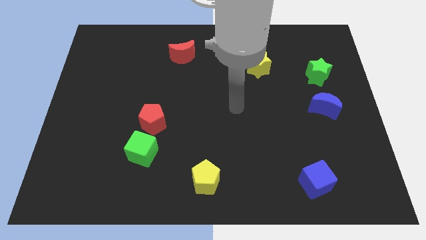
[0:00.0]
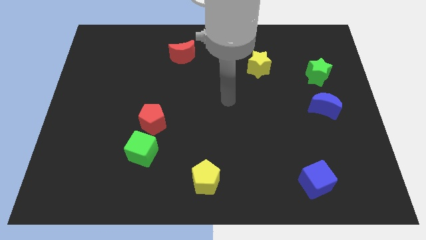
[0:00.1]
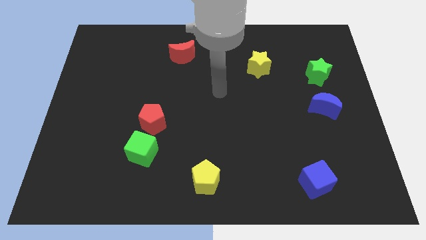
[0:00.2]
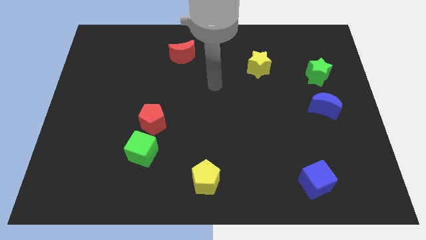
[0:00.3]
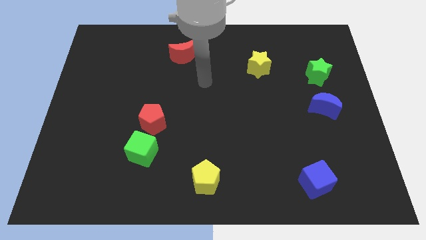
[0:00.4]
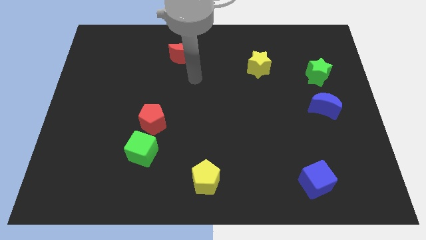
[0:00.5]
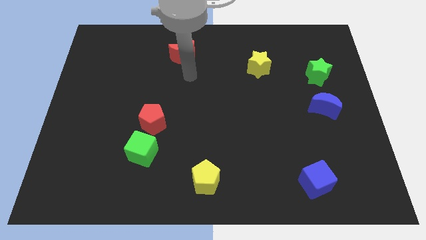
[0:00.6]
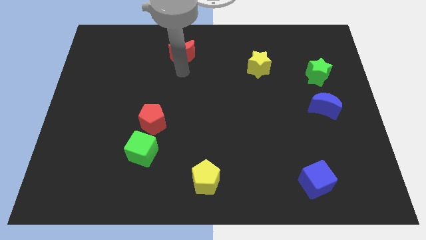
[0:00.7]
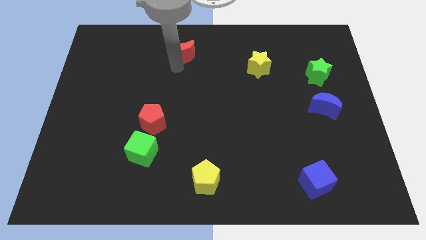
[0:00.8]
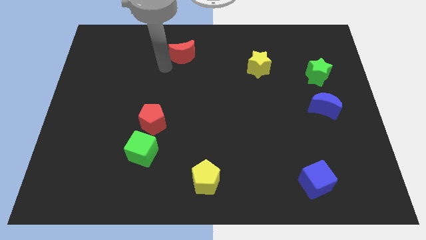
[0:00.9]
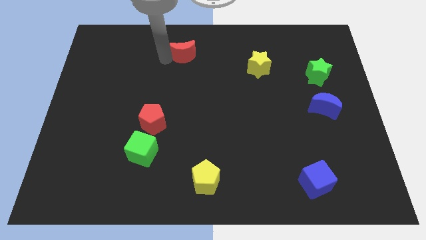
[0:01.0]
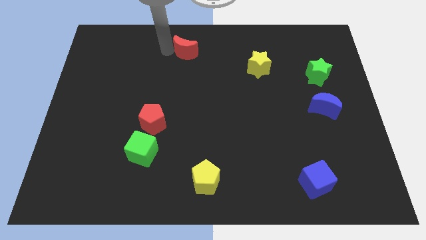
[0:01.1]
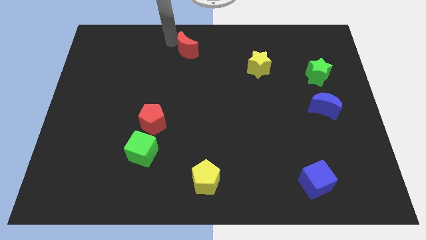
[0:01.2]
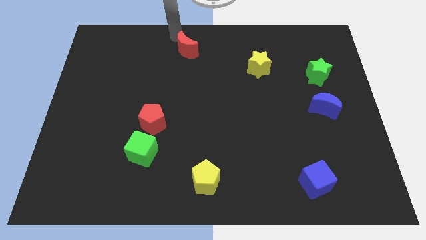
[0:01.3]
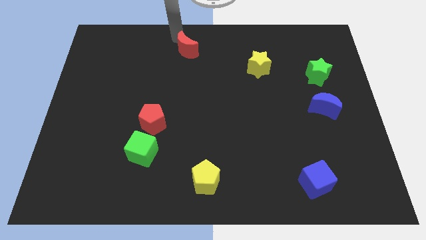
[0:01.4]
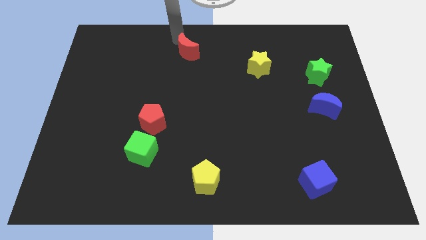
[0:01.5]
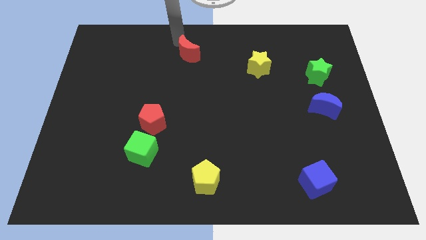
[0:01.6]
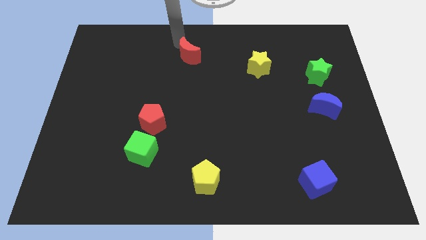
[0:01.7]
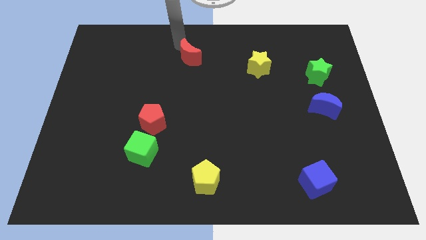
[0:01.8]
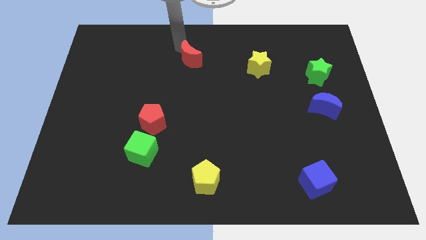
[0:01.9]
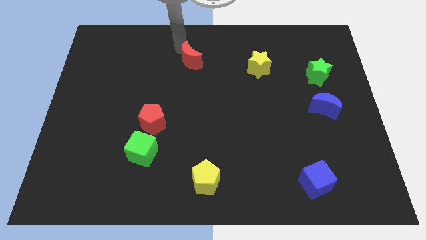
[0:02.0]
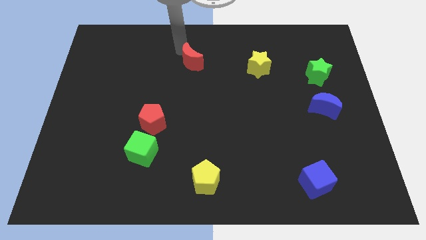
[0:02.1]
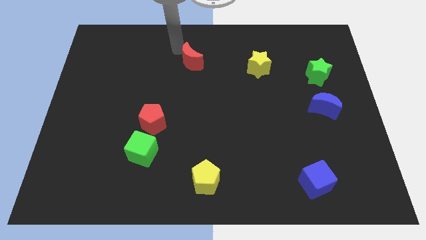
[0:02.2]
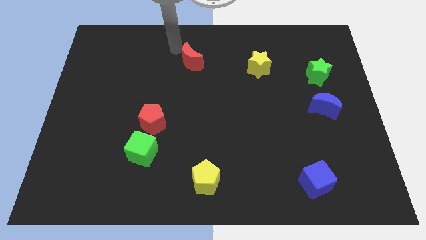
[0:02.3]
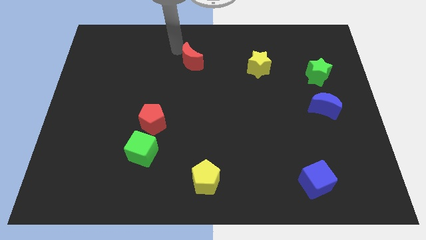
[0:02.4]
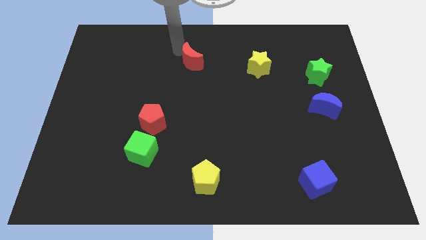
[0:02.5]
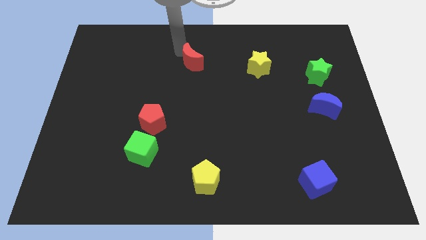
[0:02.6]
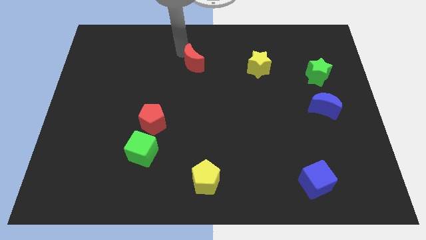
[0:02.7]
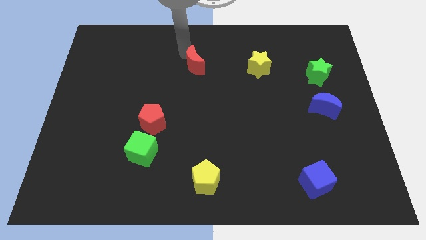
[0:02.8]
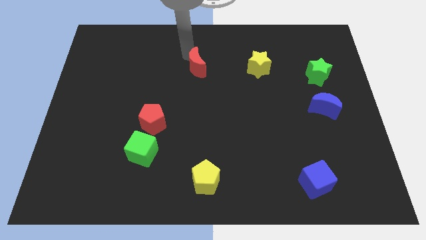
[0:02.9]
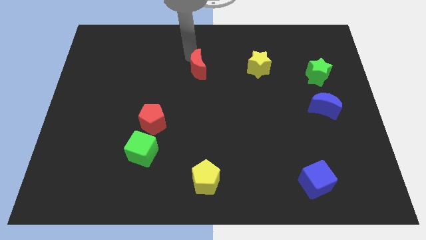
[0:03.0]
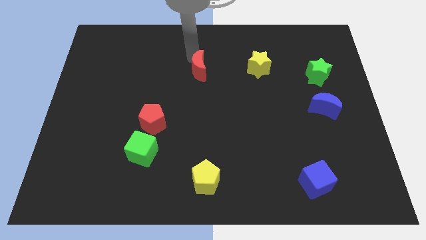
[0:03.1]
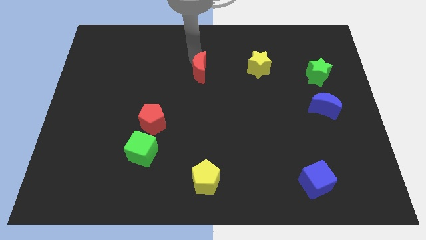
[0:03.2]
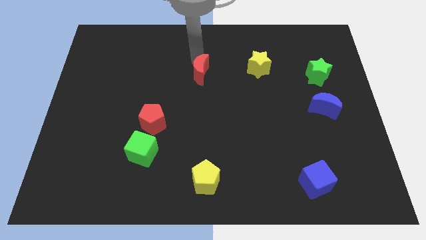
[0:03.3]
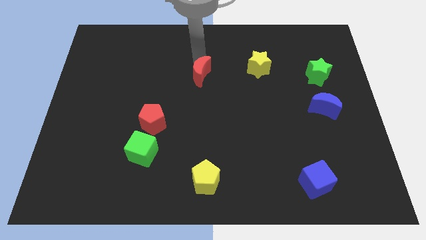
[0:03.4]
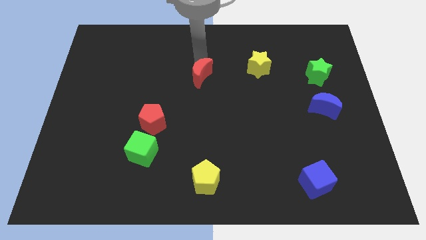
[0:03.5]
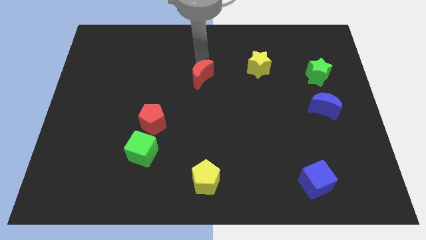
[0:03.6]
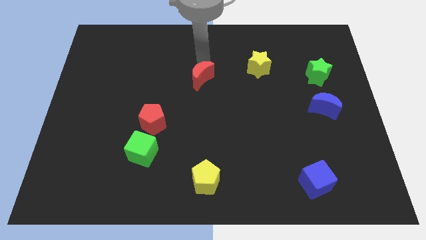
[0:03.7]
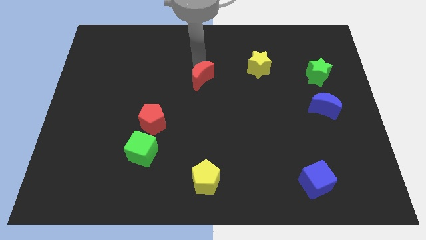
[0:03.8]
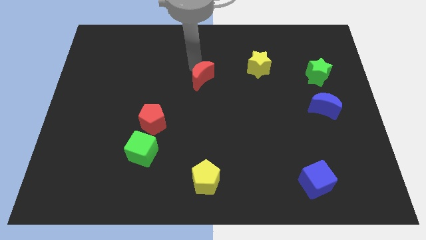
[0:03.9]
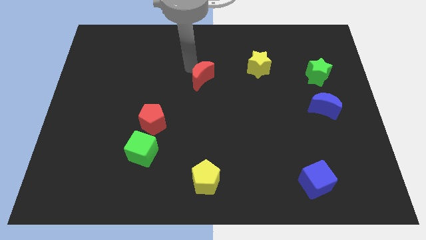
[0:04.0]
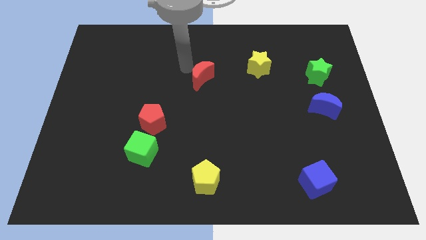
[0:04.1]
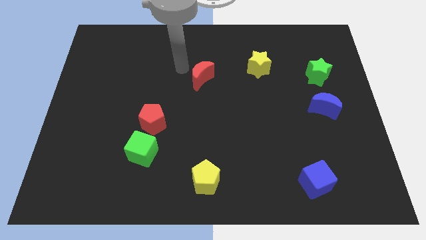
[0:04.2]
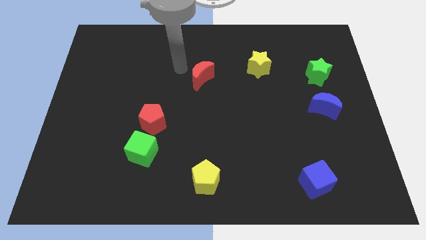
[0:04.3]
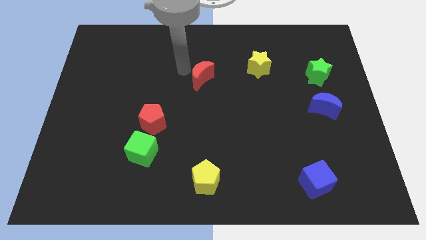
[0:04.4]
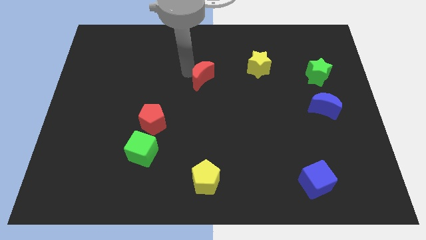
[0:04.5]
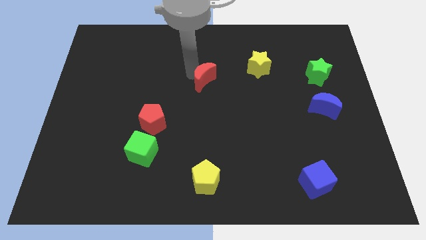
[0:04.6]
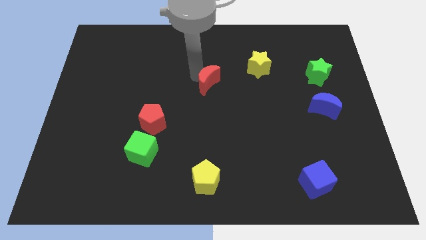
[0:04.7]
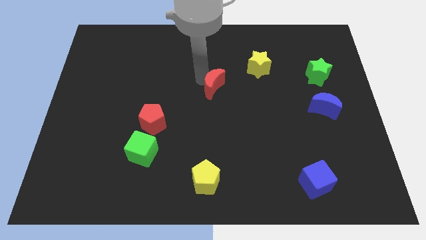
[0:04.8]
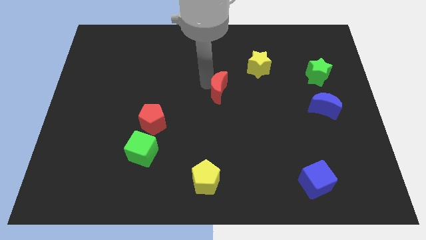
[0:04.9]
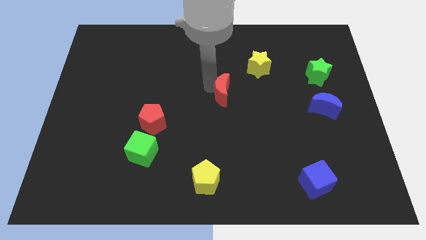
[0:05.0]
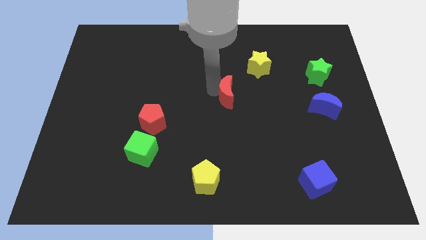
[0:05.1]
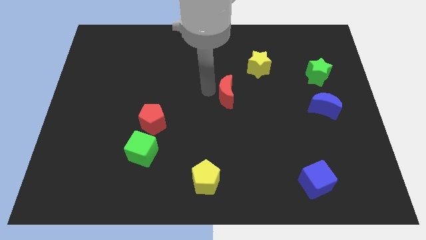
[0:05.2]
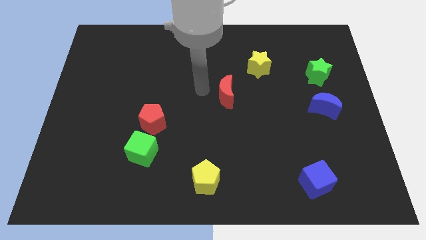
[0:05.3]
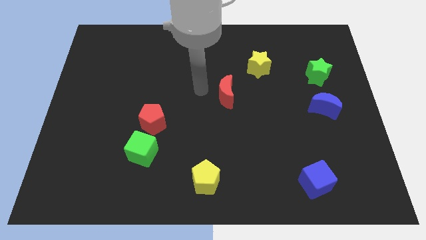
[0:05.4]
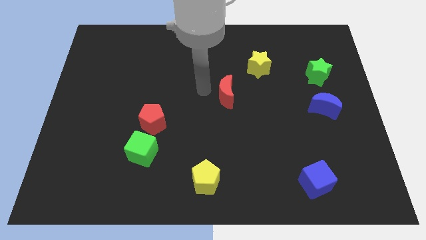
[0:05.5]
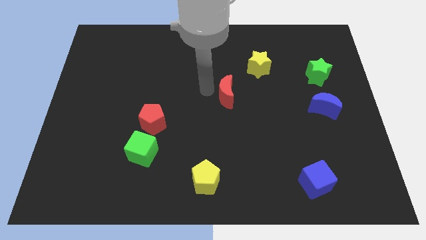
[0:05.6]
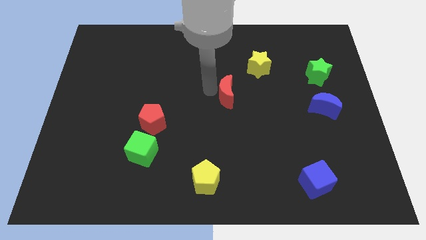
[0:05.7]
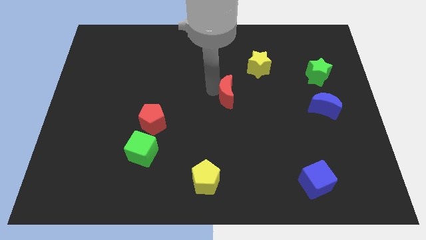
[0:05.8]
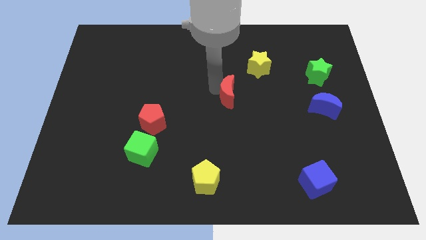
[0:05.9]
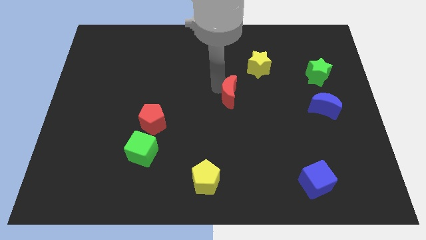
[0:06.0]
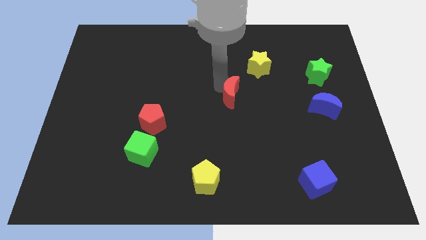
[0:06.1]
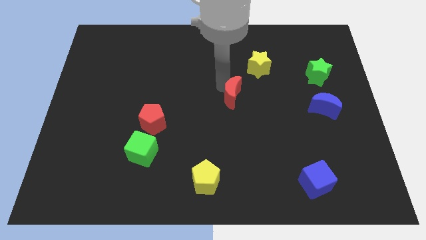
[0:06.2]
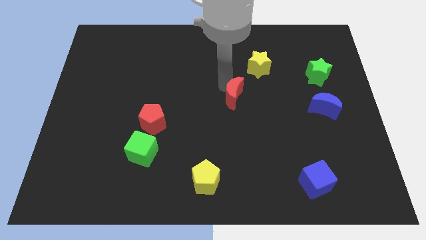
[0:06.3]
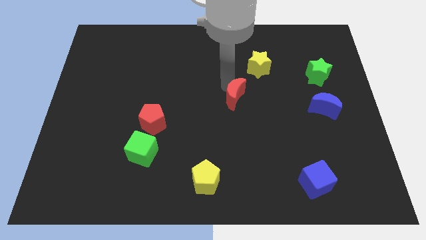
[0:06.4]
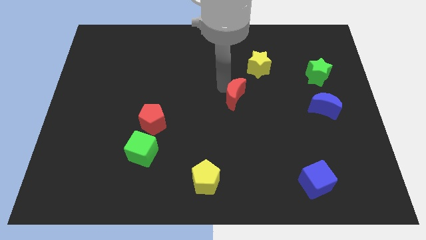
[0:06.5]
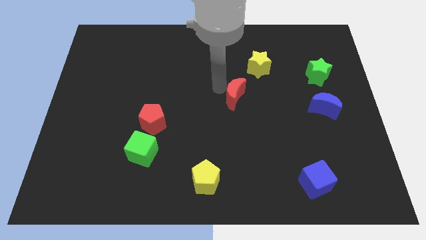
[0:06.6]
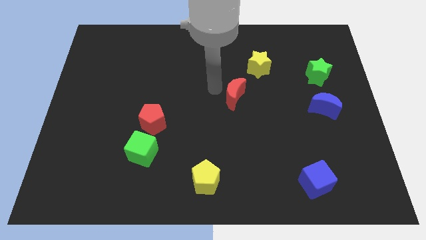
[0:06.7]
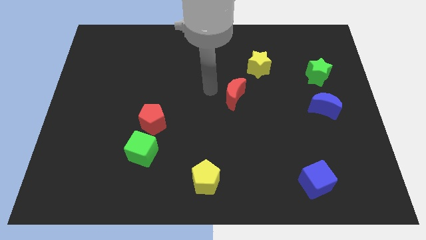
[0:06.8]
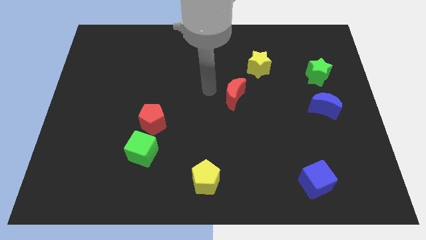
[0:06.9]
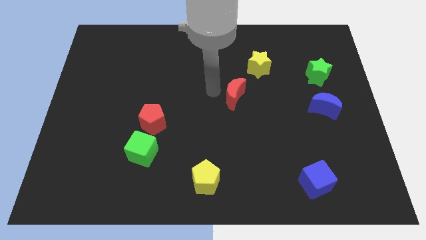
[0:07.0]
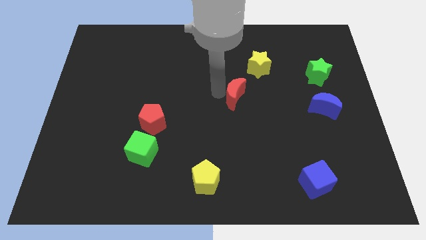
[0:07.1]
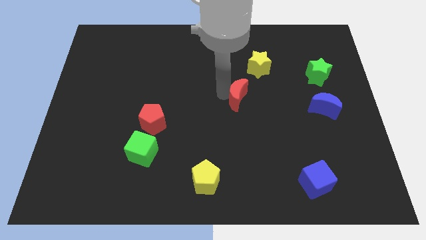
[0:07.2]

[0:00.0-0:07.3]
move the red moon down and to the right diagonally

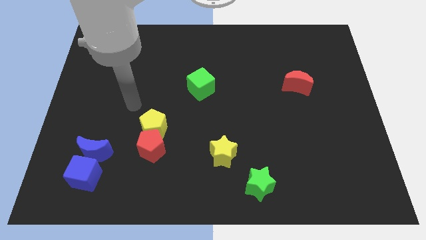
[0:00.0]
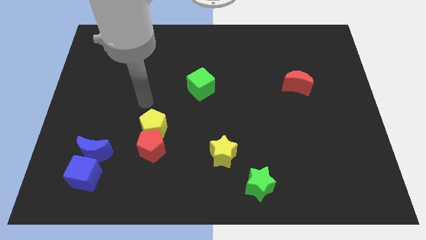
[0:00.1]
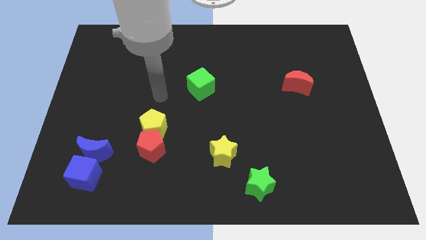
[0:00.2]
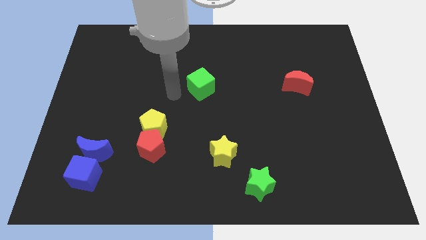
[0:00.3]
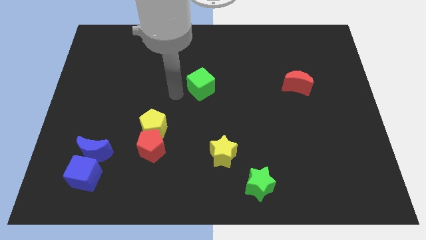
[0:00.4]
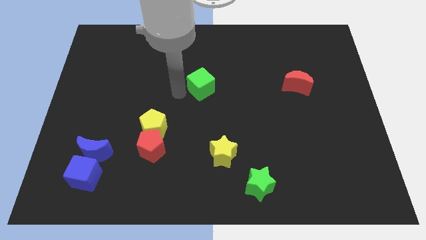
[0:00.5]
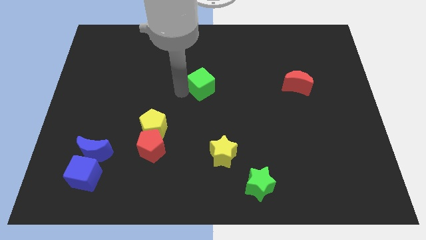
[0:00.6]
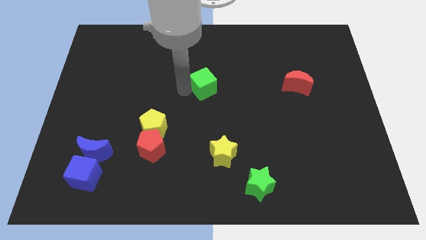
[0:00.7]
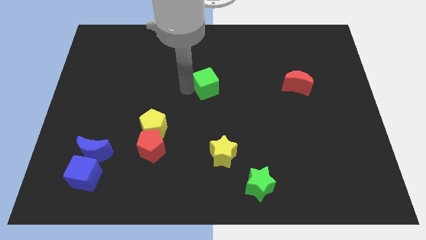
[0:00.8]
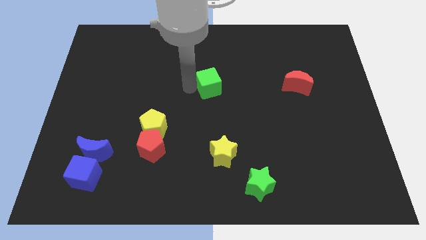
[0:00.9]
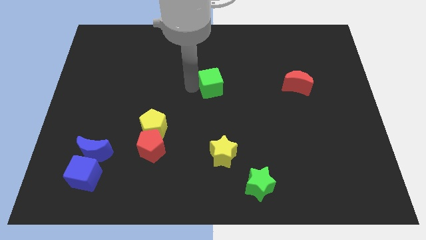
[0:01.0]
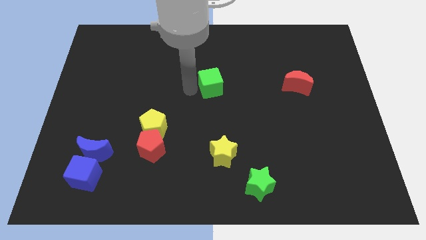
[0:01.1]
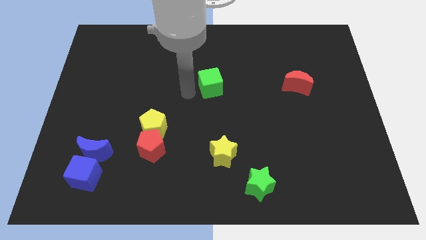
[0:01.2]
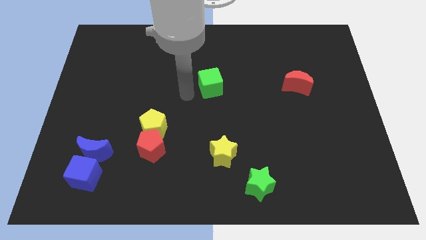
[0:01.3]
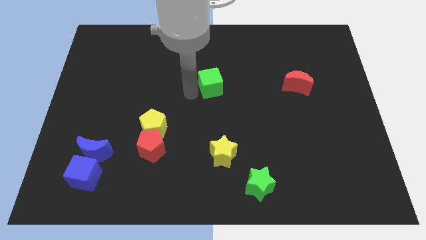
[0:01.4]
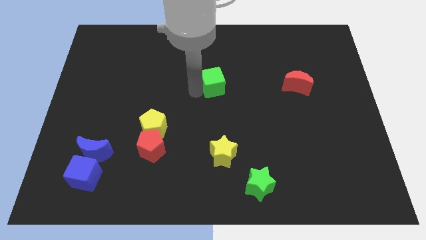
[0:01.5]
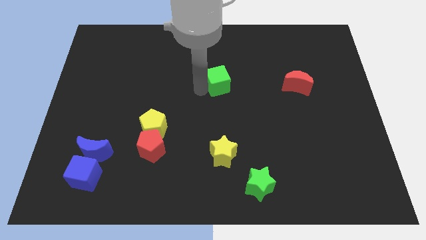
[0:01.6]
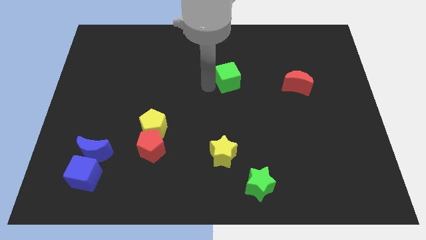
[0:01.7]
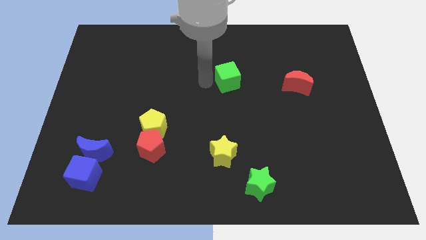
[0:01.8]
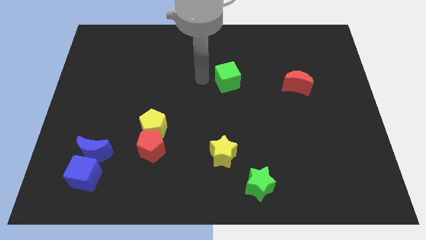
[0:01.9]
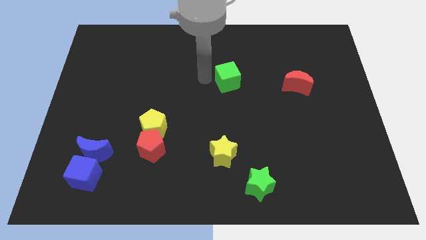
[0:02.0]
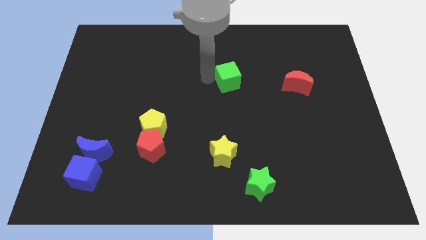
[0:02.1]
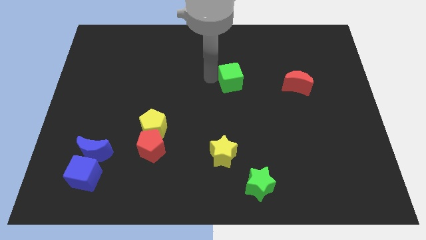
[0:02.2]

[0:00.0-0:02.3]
move the green cube somewhat right
